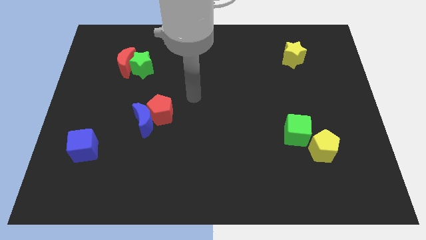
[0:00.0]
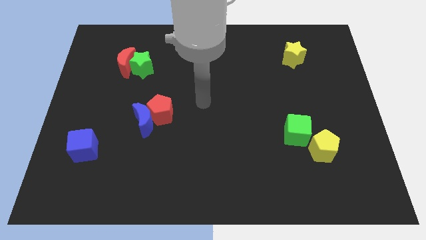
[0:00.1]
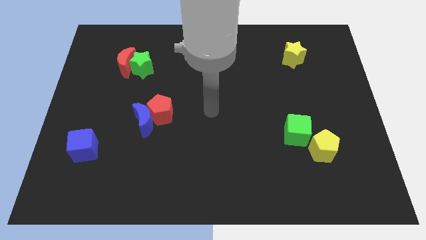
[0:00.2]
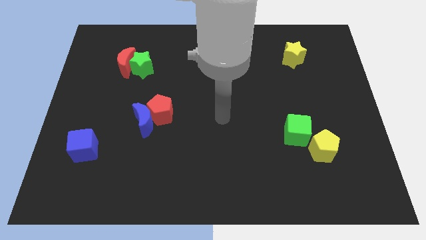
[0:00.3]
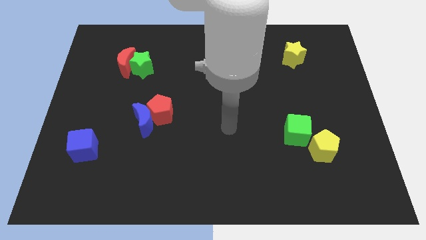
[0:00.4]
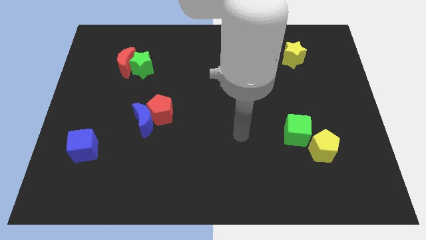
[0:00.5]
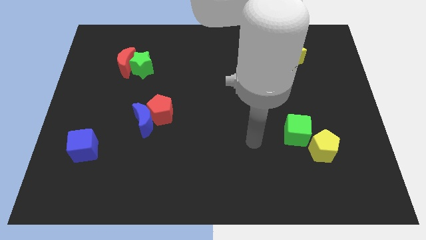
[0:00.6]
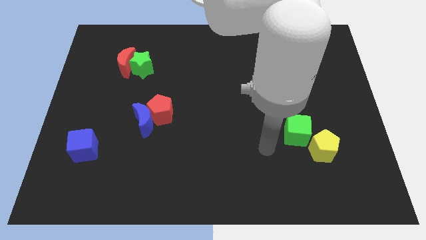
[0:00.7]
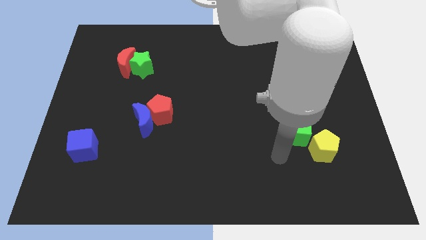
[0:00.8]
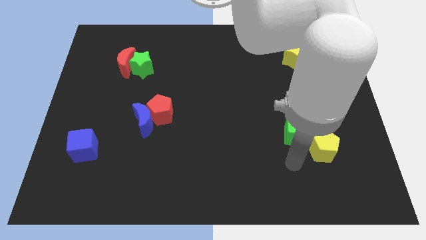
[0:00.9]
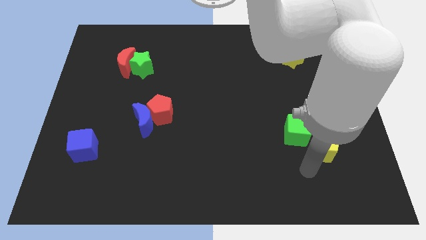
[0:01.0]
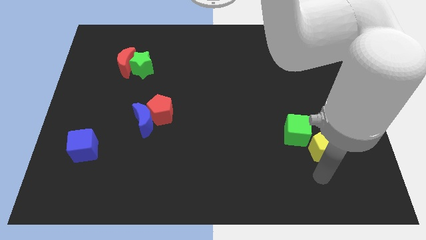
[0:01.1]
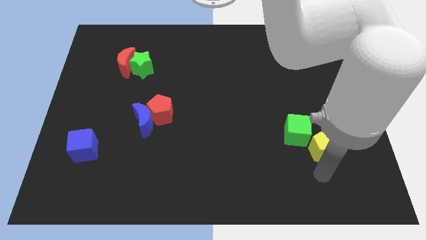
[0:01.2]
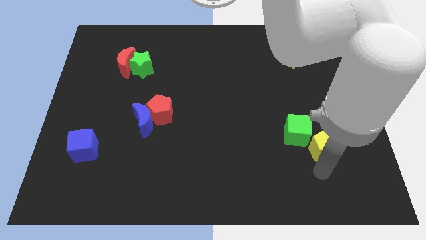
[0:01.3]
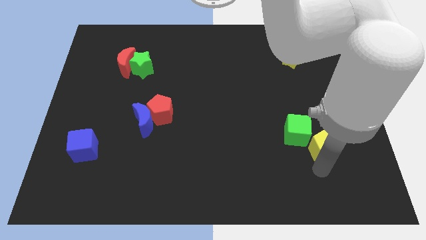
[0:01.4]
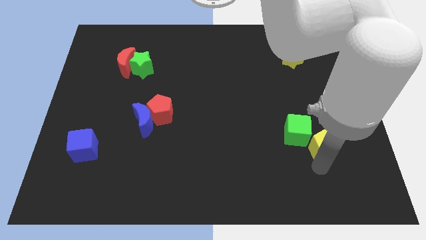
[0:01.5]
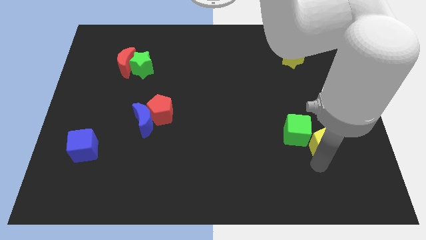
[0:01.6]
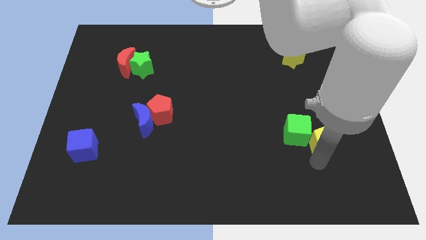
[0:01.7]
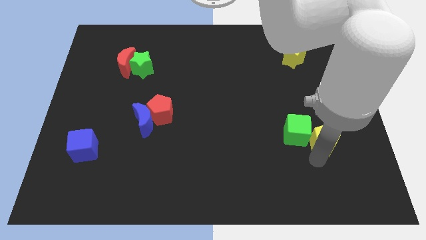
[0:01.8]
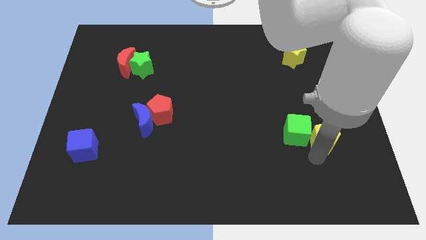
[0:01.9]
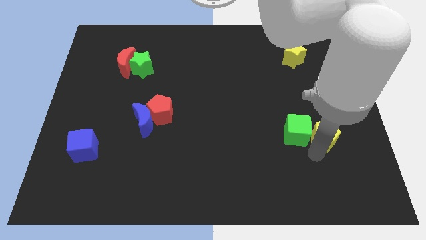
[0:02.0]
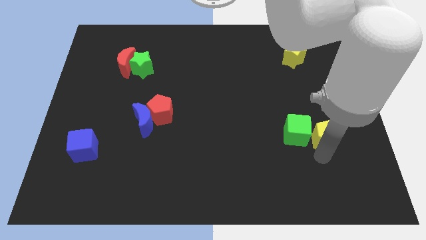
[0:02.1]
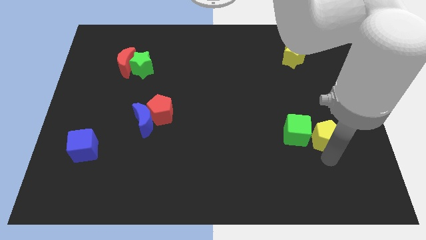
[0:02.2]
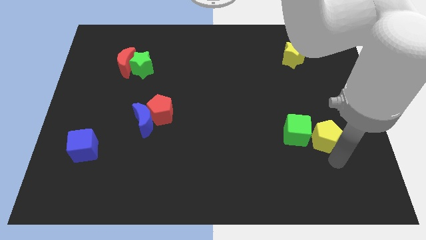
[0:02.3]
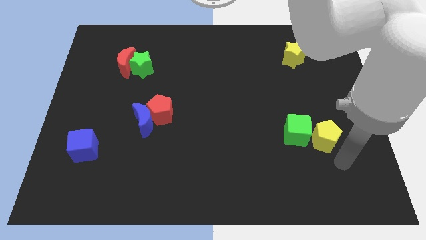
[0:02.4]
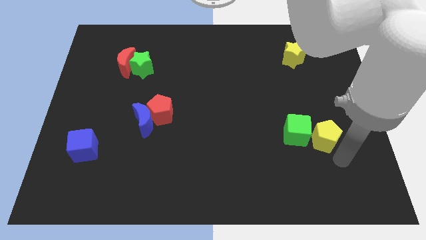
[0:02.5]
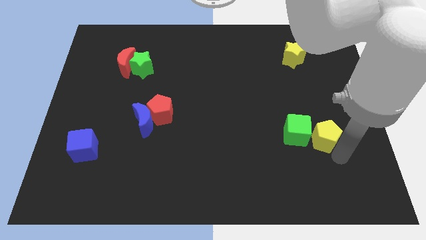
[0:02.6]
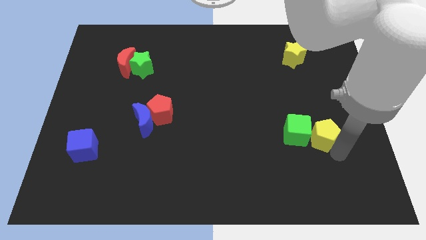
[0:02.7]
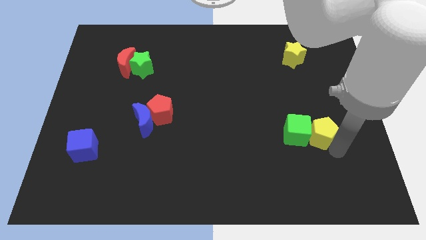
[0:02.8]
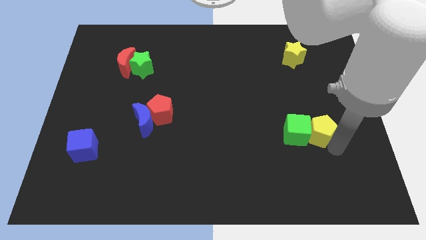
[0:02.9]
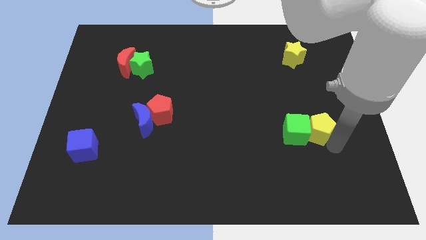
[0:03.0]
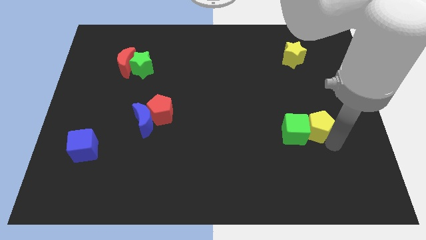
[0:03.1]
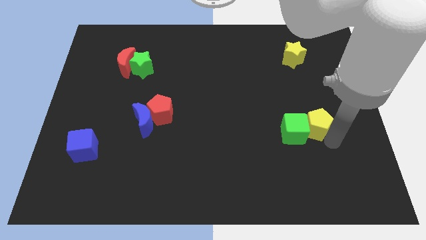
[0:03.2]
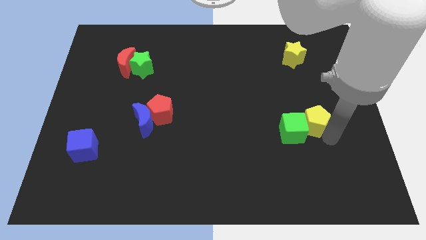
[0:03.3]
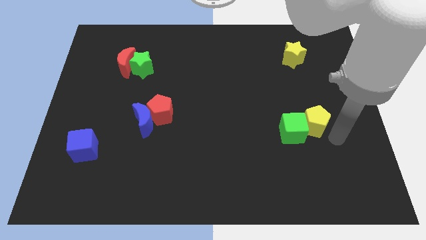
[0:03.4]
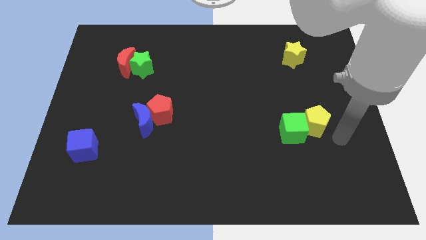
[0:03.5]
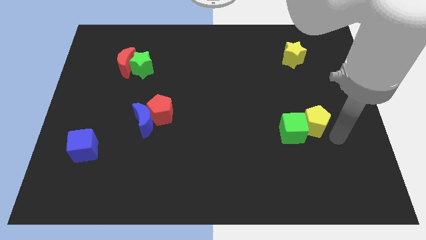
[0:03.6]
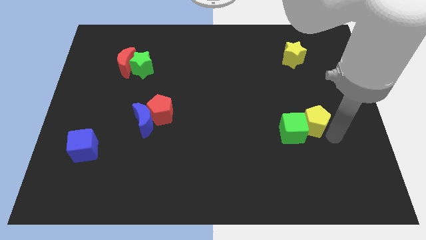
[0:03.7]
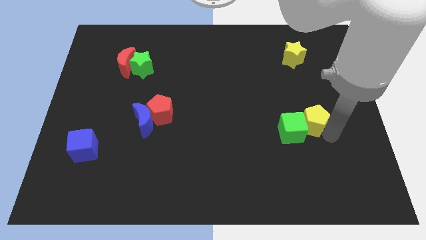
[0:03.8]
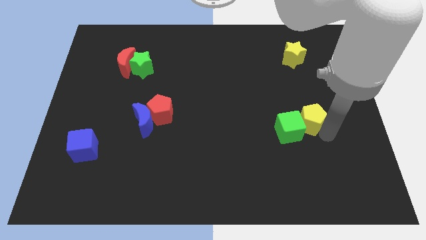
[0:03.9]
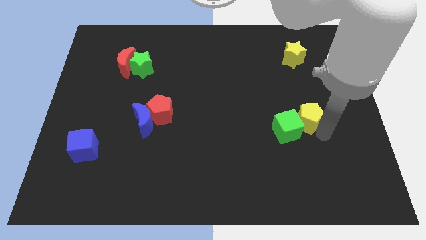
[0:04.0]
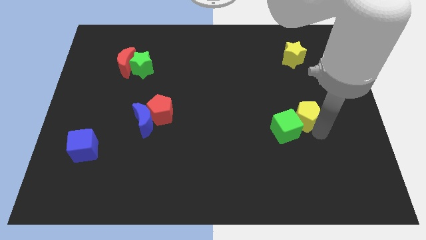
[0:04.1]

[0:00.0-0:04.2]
slightly push the yellow pentagon upwards and then left

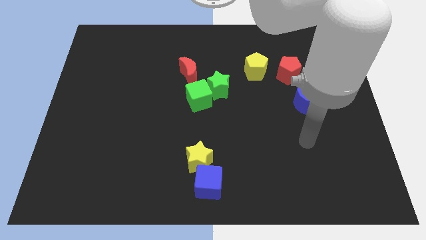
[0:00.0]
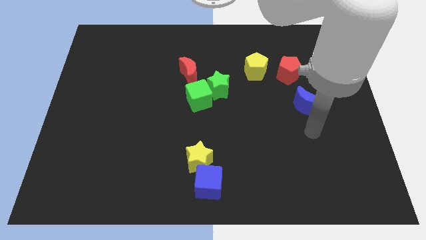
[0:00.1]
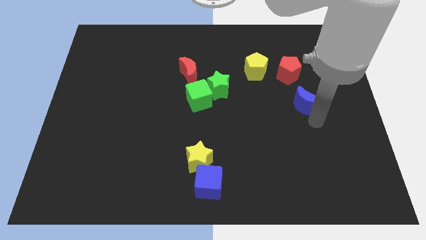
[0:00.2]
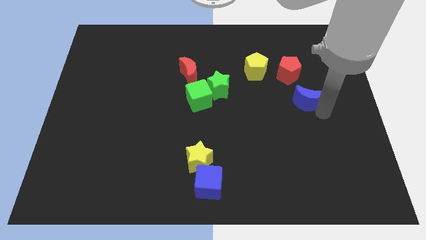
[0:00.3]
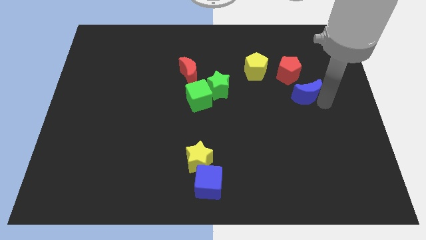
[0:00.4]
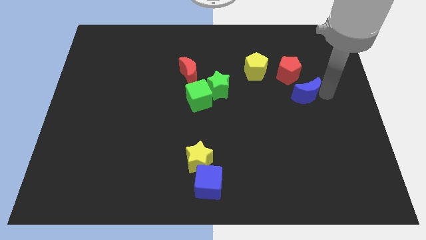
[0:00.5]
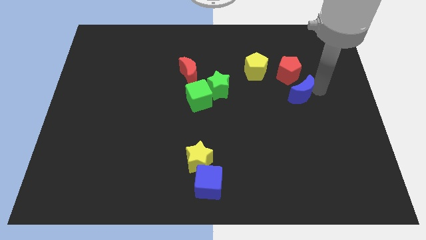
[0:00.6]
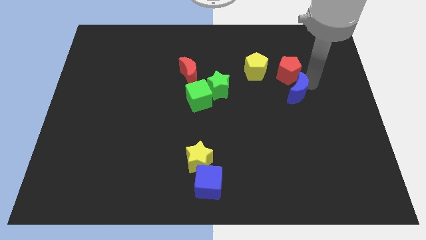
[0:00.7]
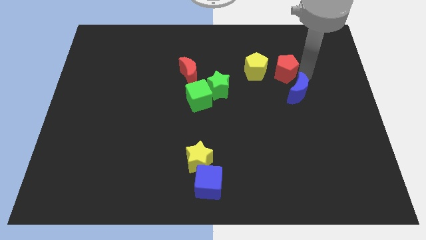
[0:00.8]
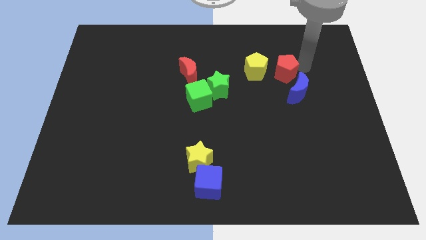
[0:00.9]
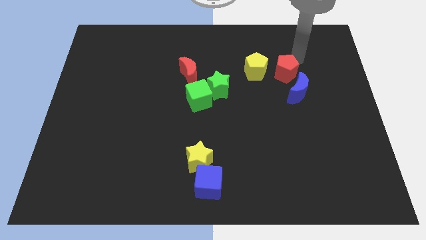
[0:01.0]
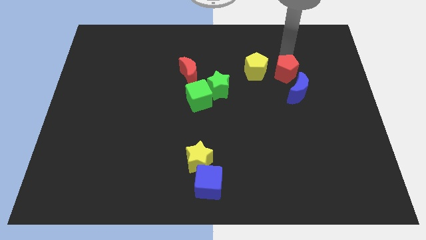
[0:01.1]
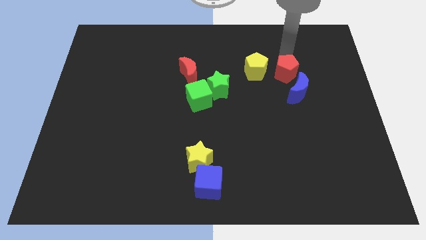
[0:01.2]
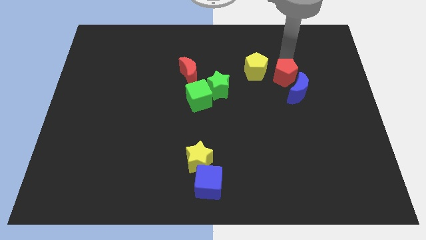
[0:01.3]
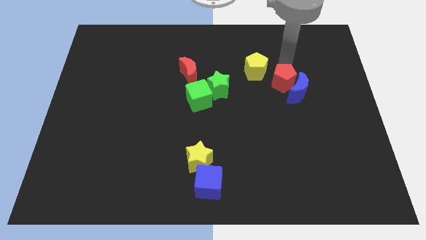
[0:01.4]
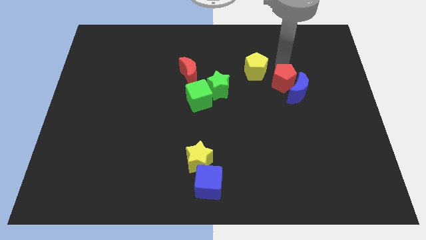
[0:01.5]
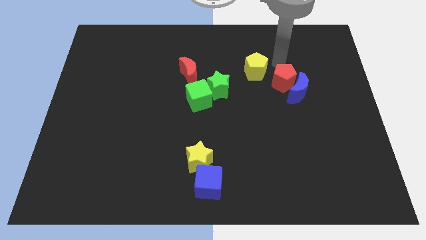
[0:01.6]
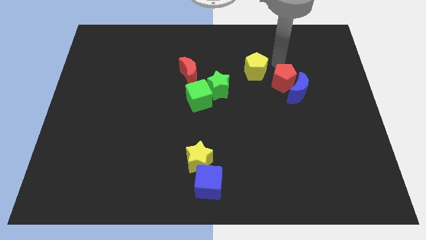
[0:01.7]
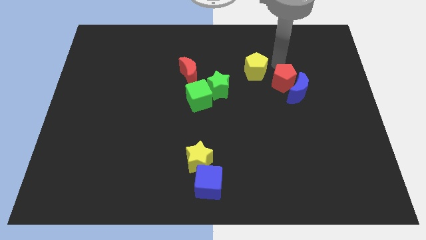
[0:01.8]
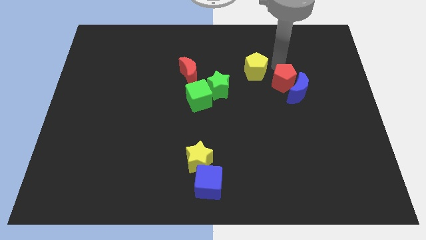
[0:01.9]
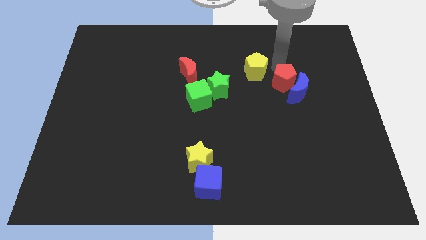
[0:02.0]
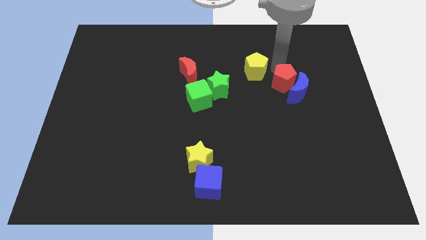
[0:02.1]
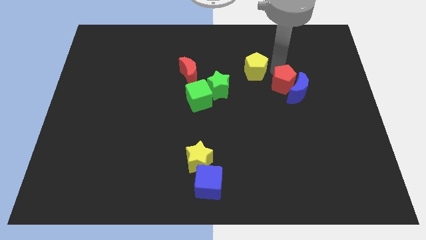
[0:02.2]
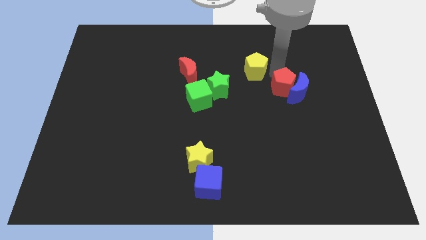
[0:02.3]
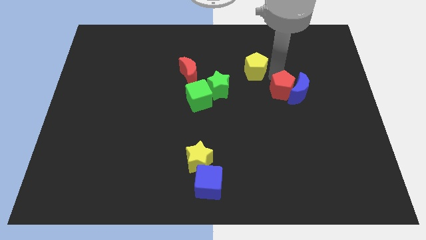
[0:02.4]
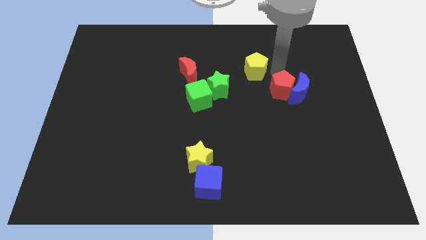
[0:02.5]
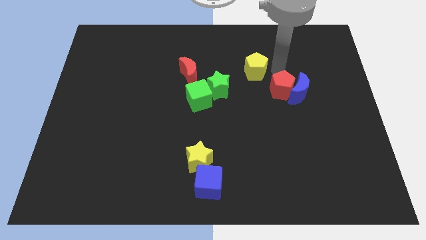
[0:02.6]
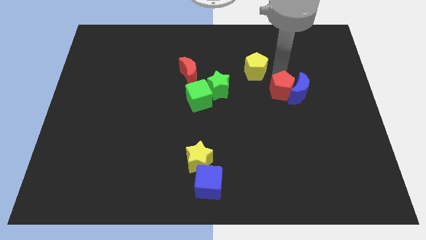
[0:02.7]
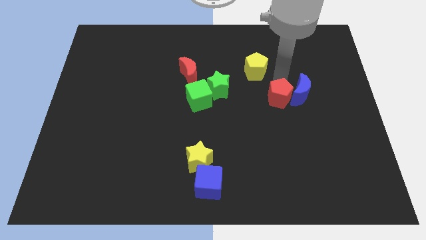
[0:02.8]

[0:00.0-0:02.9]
slightly push the red pentagon down

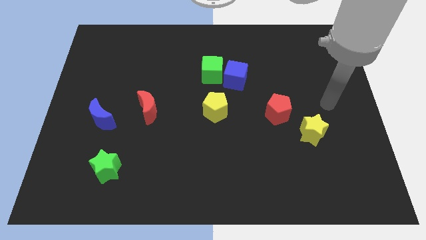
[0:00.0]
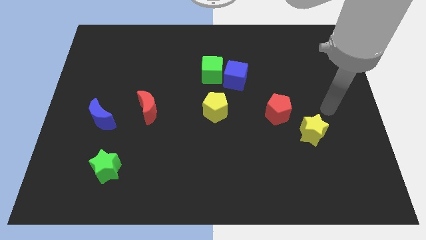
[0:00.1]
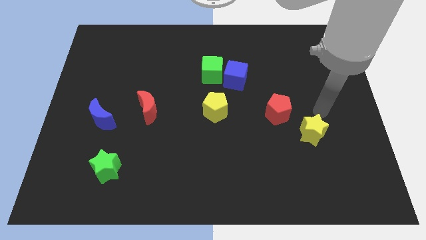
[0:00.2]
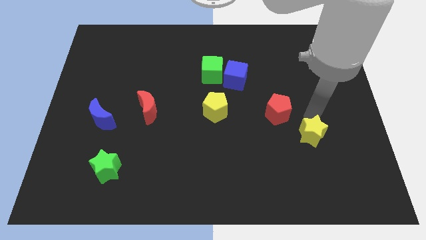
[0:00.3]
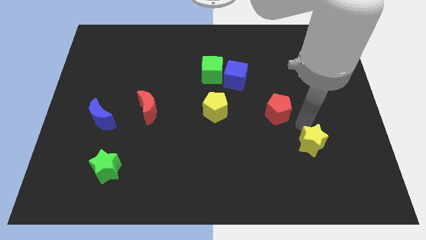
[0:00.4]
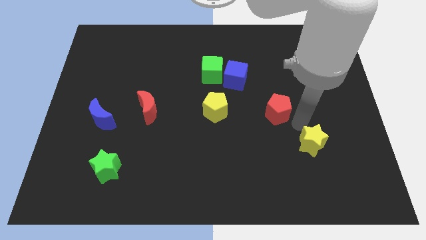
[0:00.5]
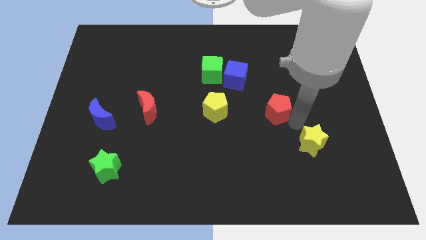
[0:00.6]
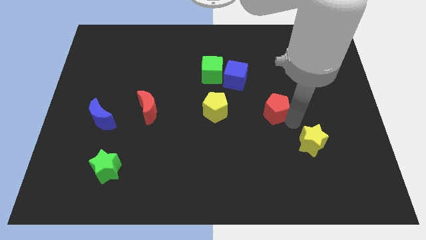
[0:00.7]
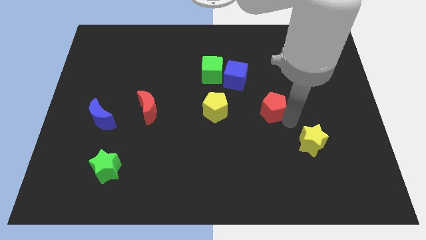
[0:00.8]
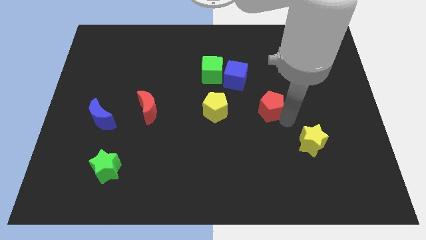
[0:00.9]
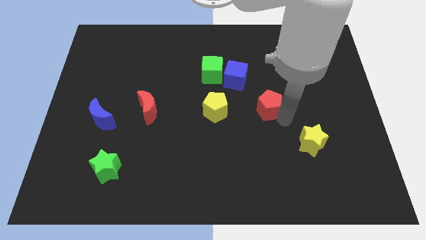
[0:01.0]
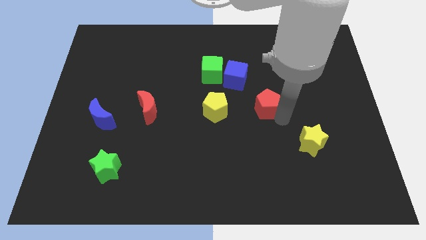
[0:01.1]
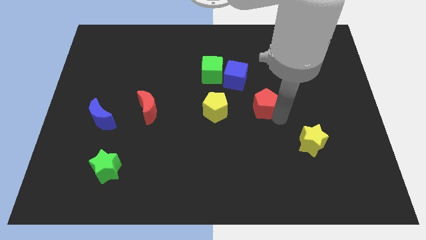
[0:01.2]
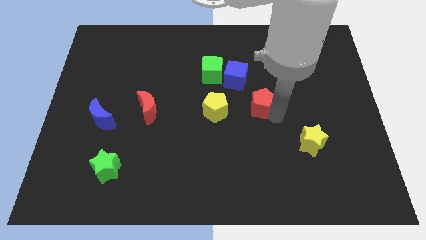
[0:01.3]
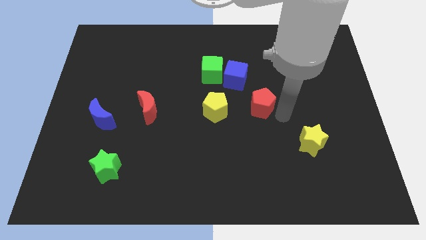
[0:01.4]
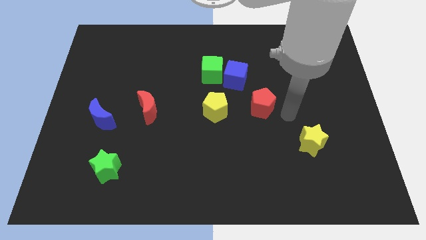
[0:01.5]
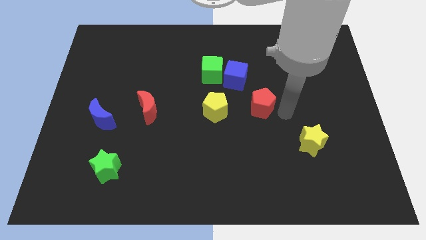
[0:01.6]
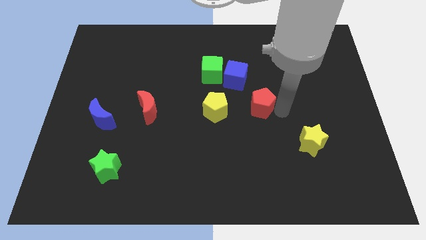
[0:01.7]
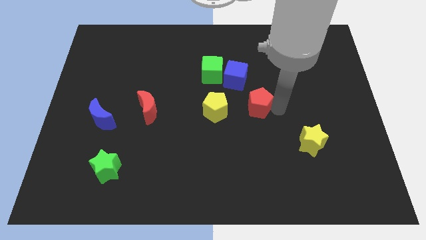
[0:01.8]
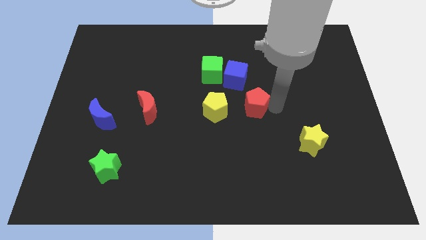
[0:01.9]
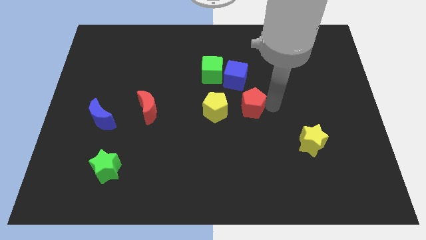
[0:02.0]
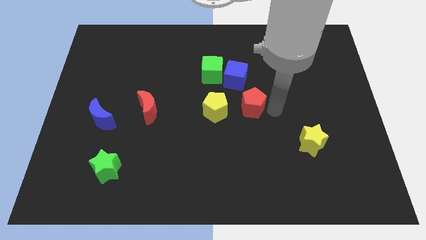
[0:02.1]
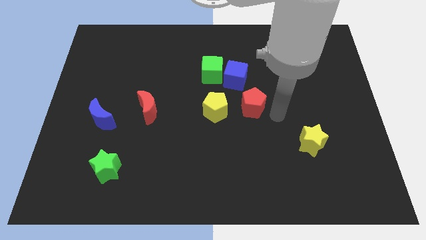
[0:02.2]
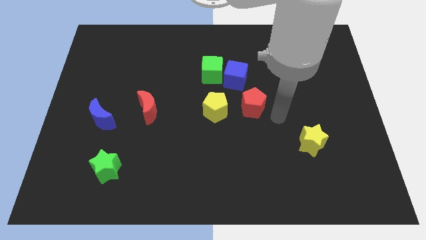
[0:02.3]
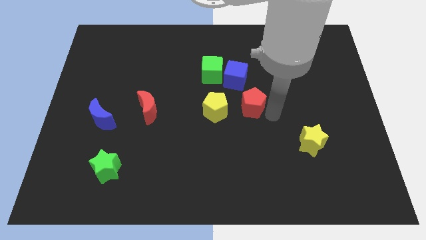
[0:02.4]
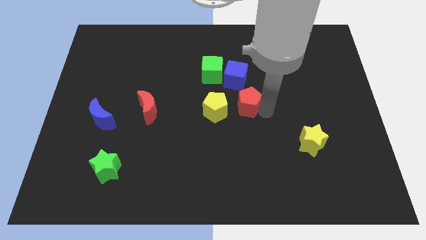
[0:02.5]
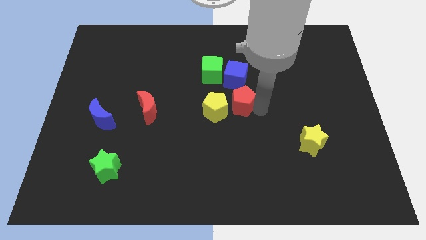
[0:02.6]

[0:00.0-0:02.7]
push the red pentagon to the left a bit
